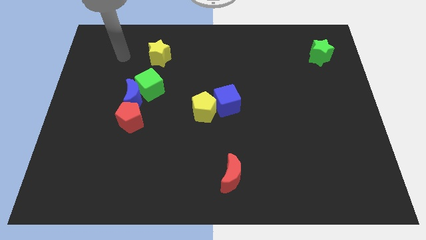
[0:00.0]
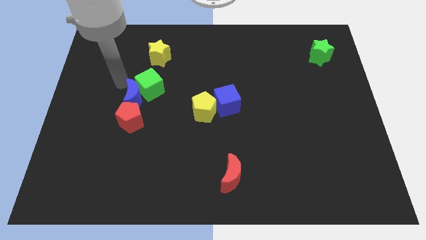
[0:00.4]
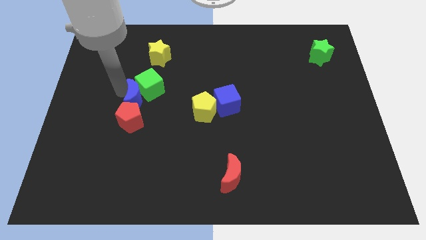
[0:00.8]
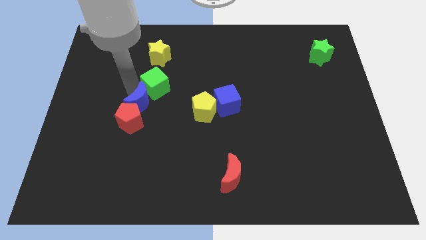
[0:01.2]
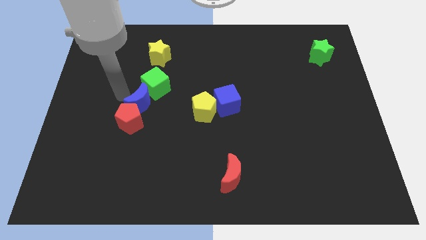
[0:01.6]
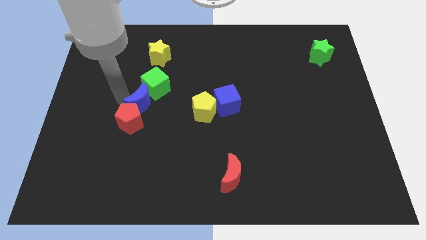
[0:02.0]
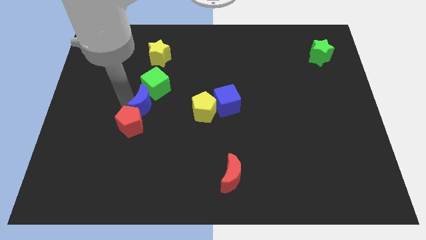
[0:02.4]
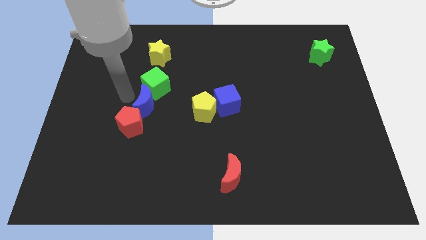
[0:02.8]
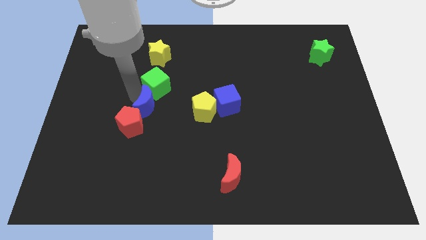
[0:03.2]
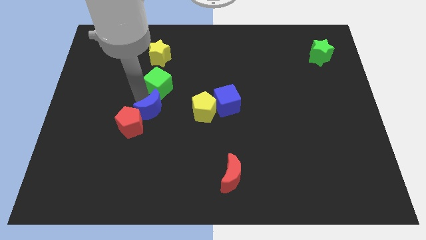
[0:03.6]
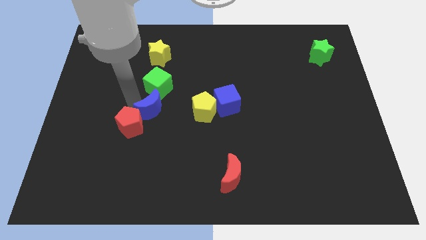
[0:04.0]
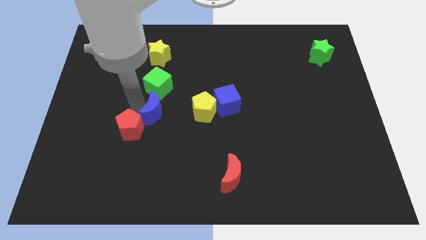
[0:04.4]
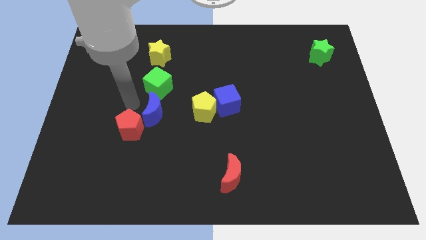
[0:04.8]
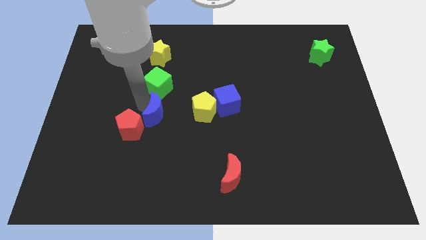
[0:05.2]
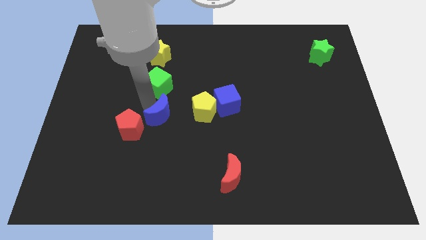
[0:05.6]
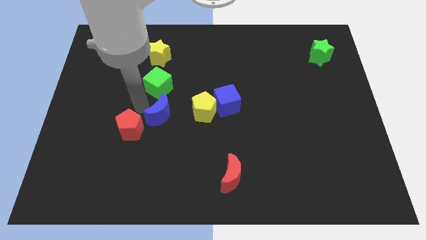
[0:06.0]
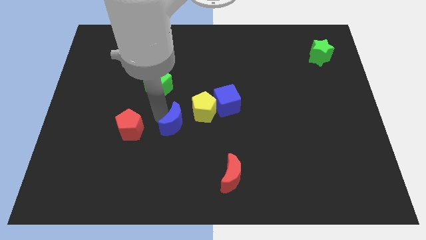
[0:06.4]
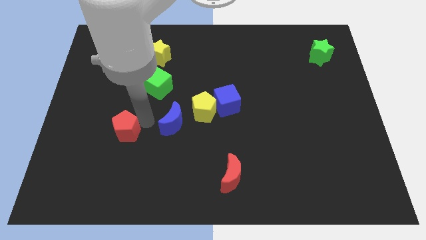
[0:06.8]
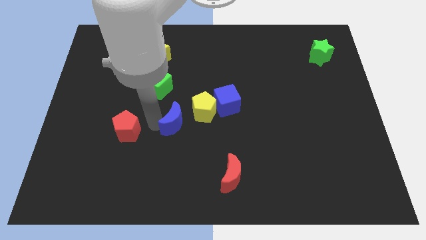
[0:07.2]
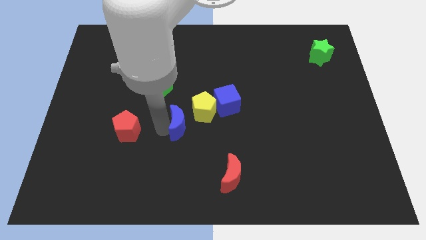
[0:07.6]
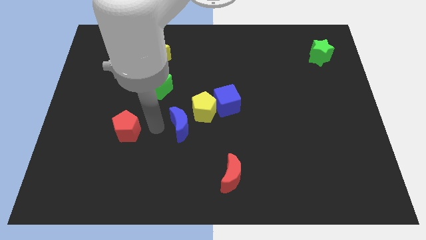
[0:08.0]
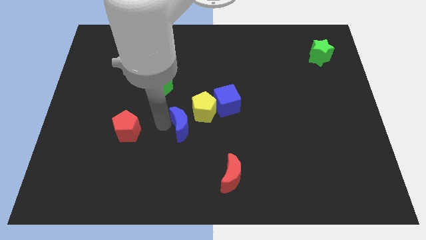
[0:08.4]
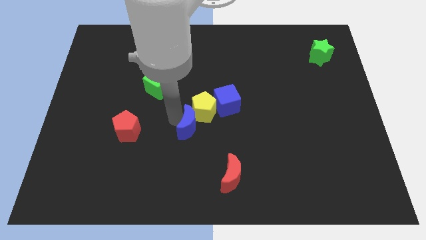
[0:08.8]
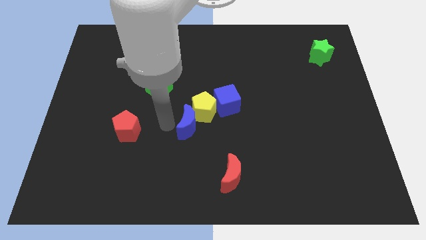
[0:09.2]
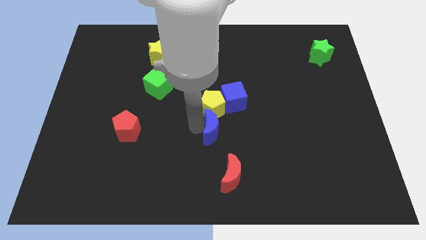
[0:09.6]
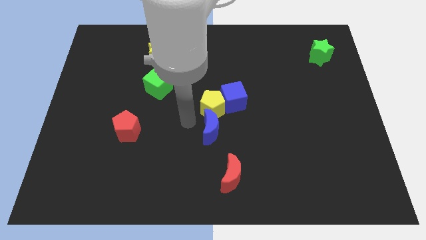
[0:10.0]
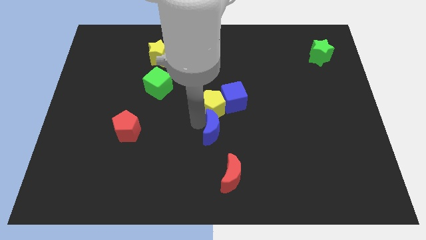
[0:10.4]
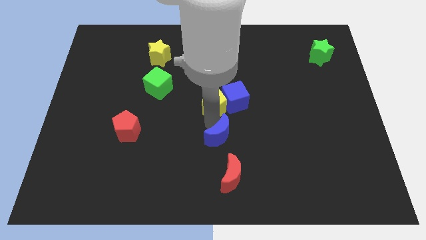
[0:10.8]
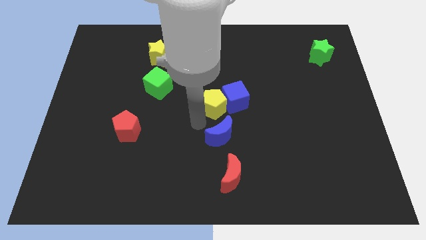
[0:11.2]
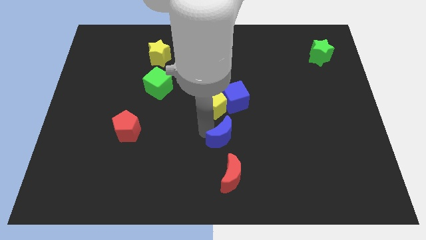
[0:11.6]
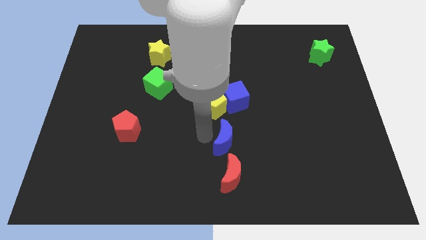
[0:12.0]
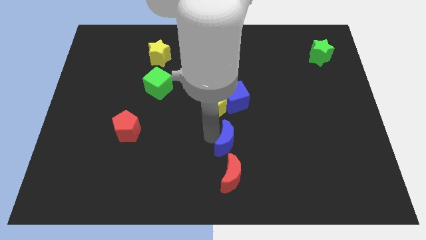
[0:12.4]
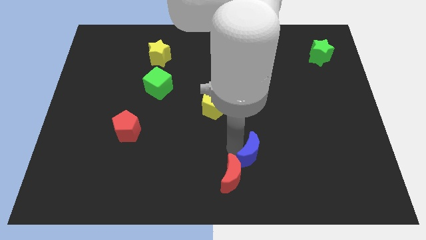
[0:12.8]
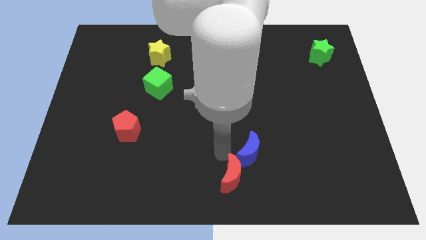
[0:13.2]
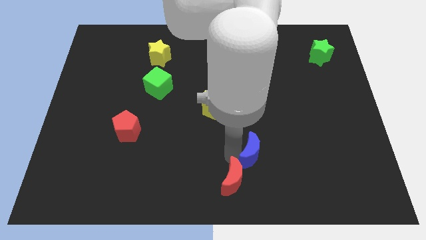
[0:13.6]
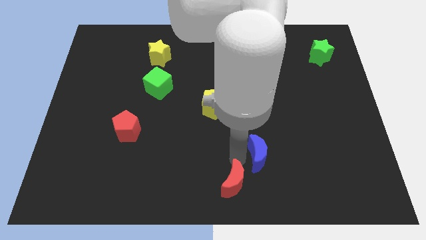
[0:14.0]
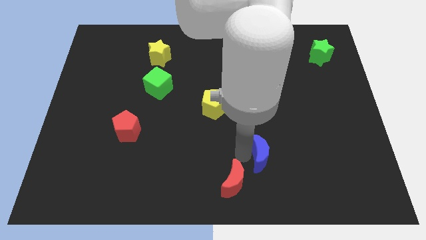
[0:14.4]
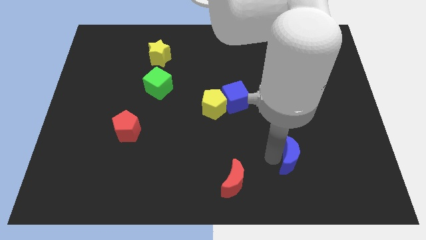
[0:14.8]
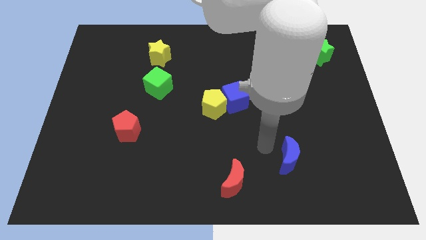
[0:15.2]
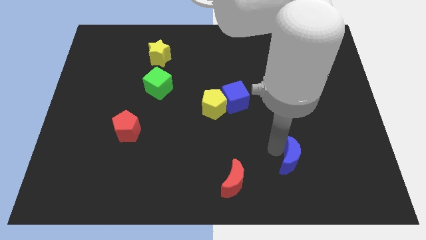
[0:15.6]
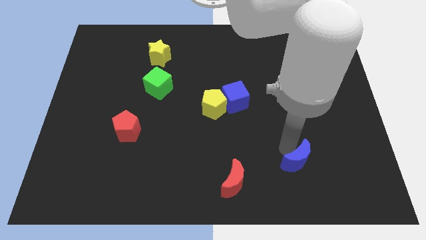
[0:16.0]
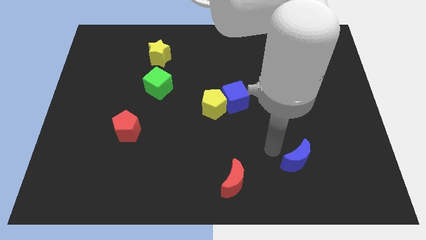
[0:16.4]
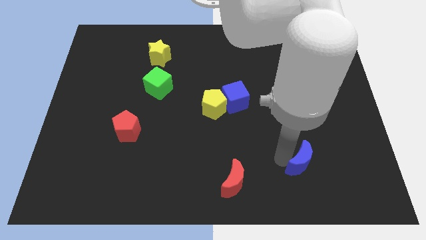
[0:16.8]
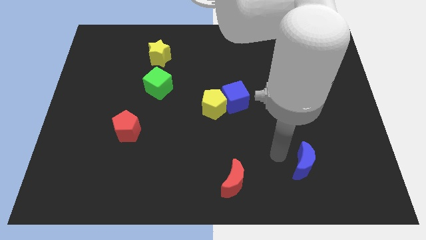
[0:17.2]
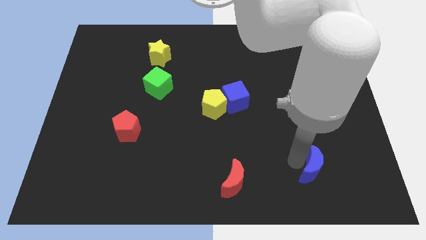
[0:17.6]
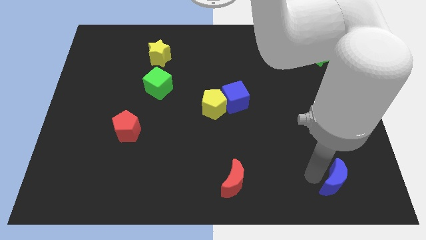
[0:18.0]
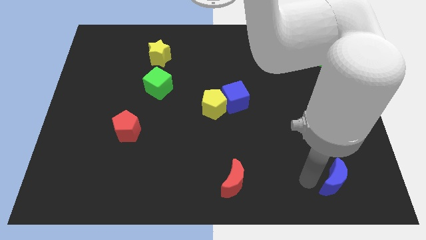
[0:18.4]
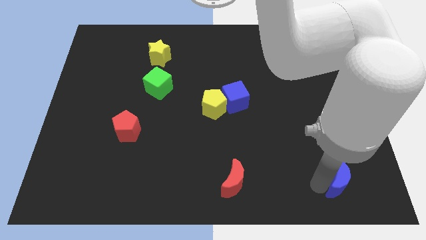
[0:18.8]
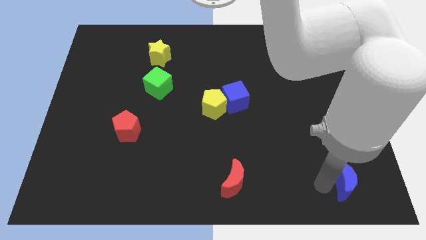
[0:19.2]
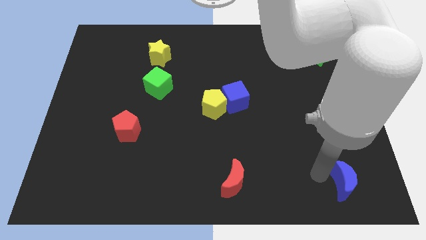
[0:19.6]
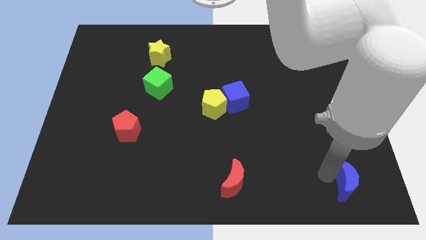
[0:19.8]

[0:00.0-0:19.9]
push the blue moon to the bottom right of the board
